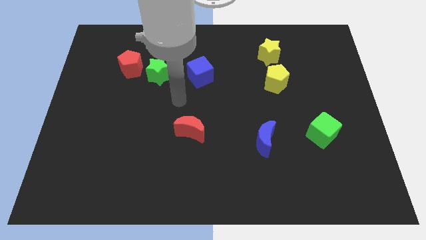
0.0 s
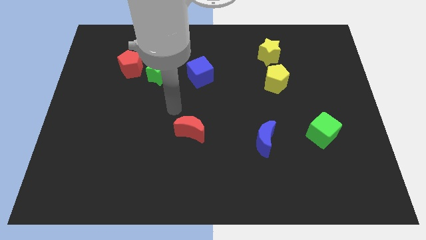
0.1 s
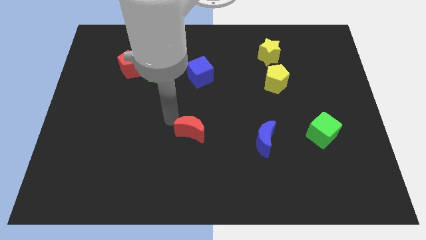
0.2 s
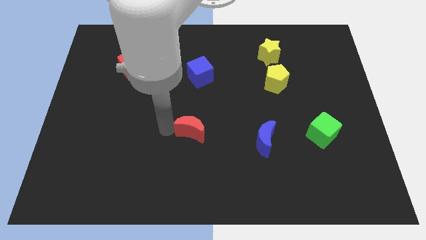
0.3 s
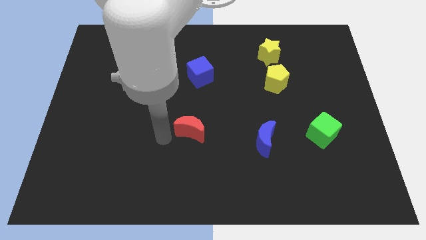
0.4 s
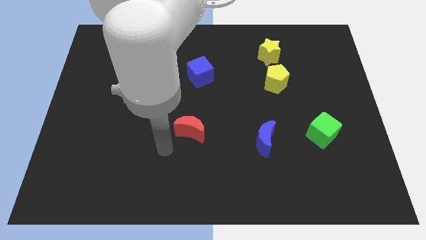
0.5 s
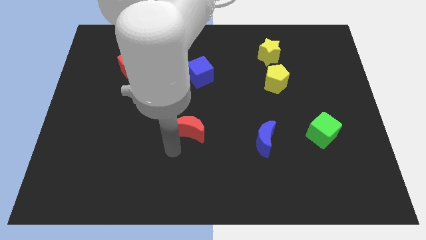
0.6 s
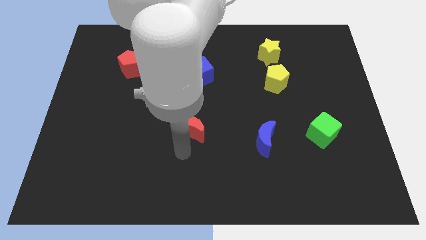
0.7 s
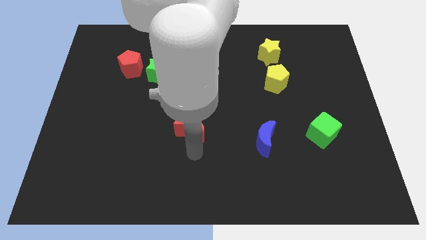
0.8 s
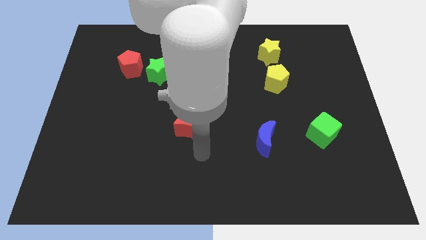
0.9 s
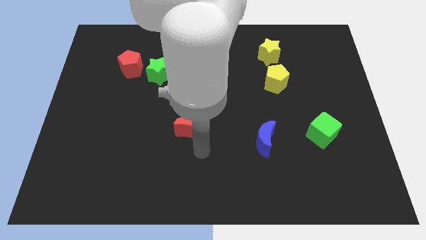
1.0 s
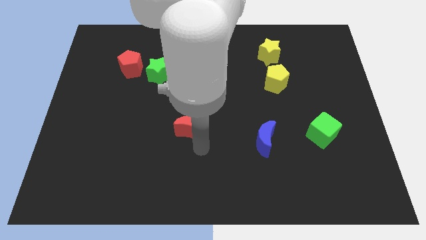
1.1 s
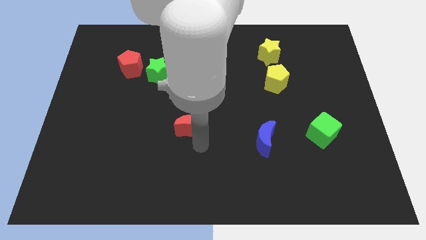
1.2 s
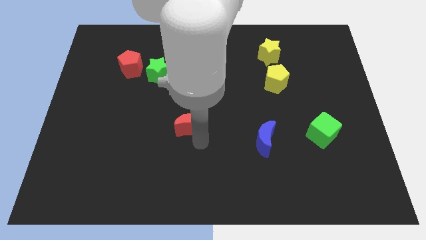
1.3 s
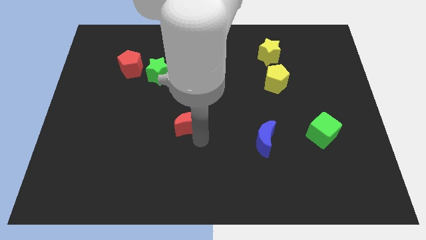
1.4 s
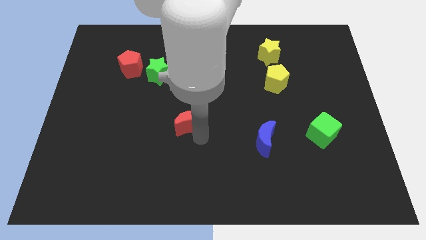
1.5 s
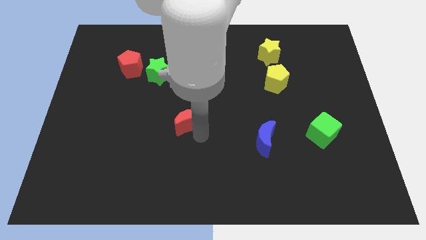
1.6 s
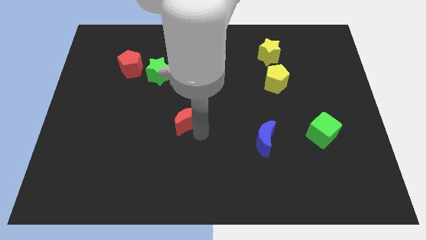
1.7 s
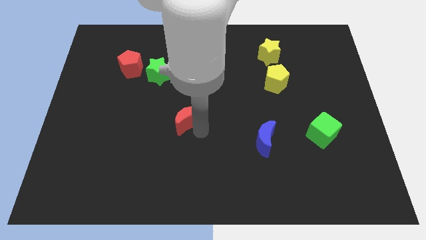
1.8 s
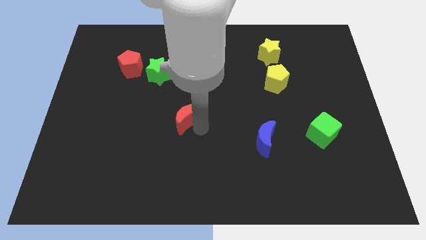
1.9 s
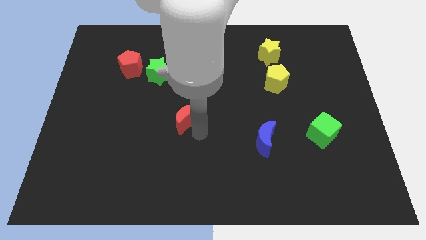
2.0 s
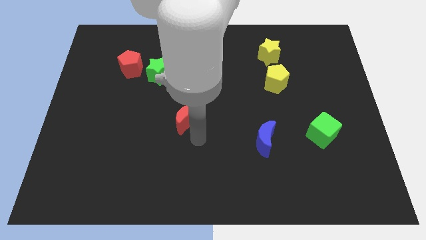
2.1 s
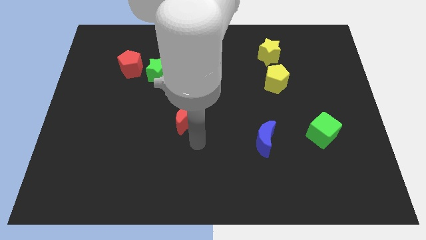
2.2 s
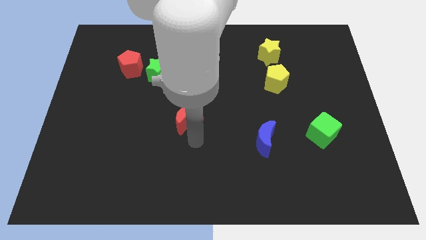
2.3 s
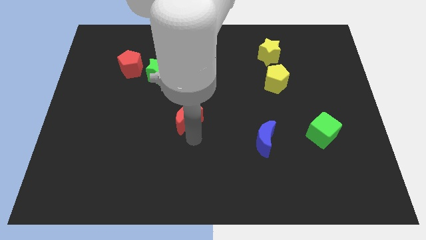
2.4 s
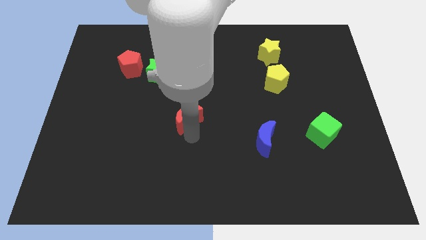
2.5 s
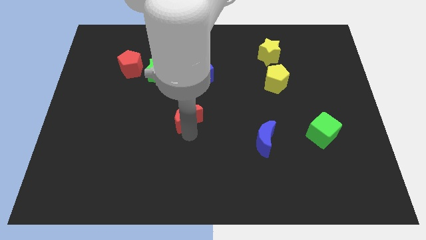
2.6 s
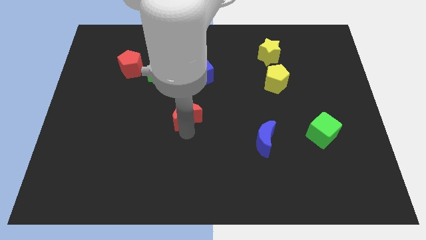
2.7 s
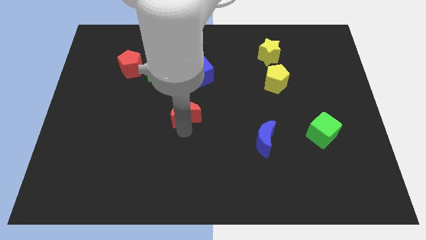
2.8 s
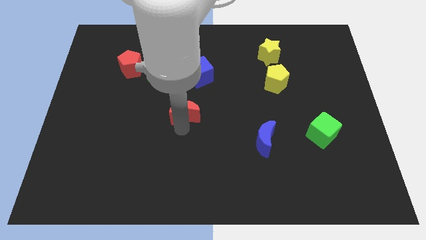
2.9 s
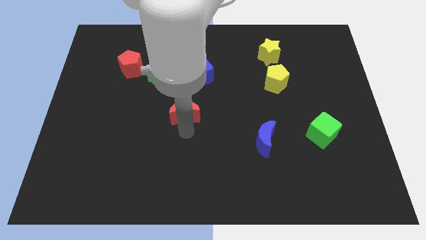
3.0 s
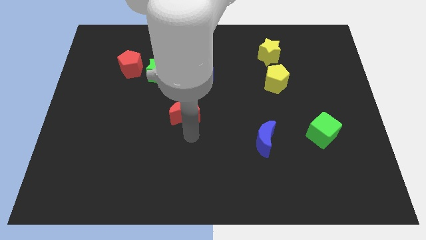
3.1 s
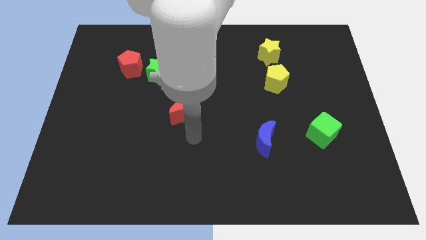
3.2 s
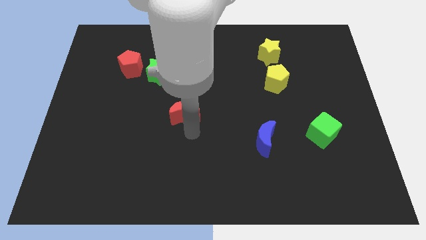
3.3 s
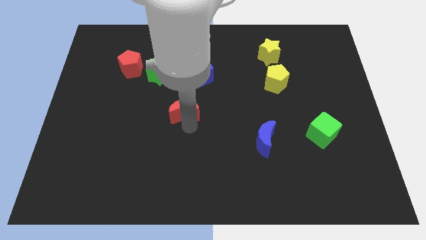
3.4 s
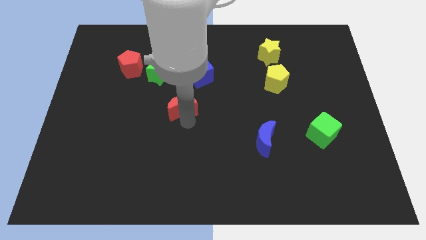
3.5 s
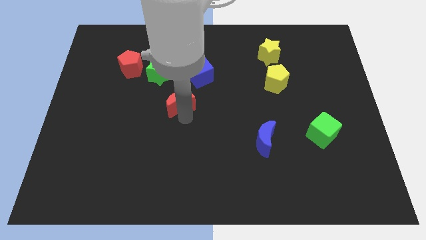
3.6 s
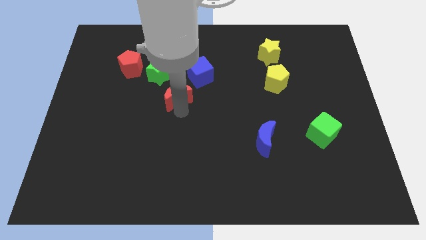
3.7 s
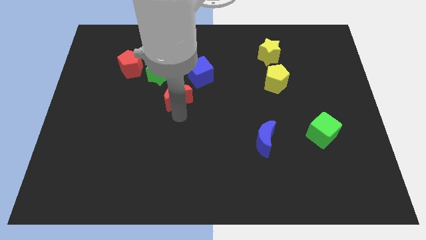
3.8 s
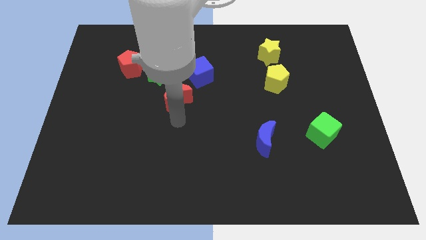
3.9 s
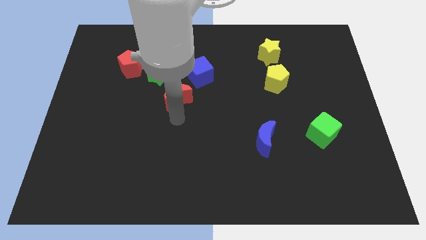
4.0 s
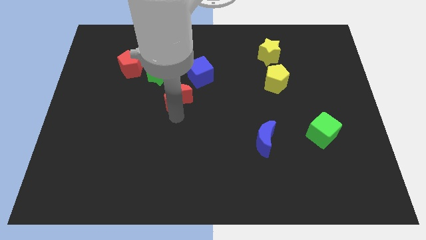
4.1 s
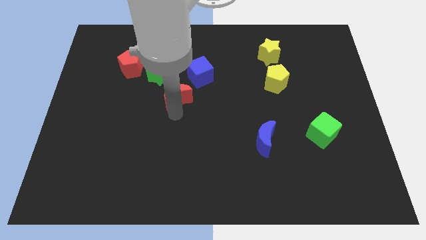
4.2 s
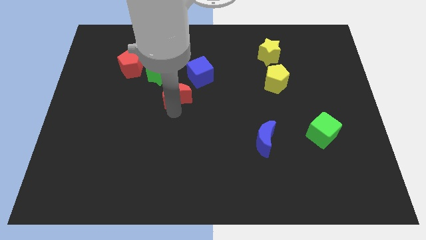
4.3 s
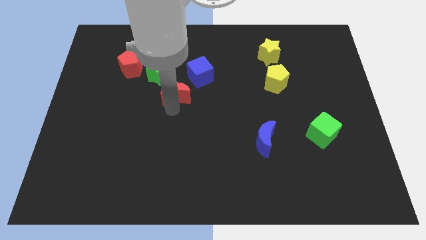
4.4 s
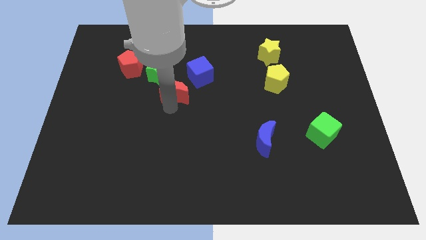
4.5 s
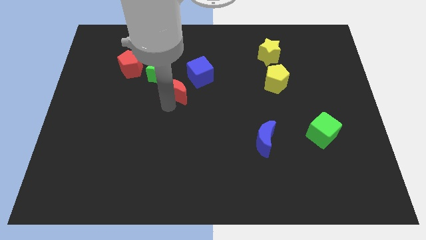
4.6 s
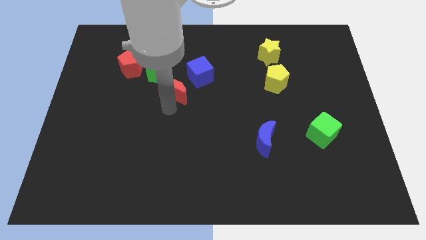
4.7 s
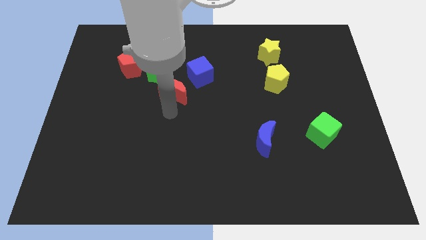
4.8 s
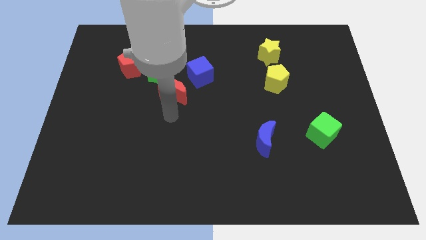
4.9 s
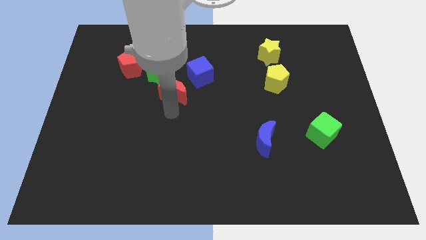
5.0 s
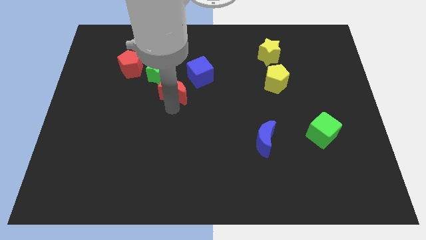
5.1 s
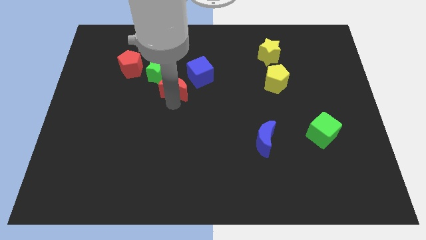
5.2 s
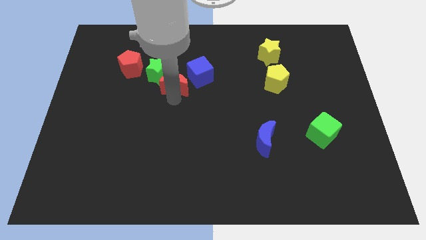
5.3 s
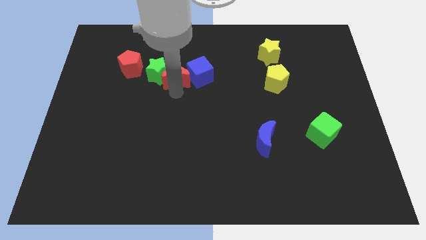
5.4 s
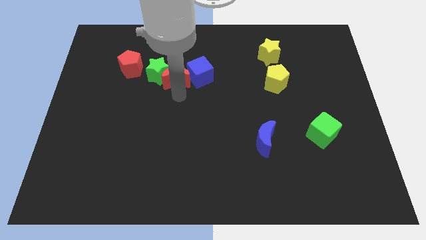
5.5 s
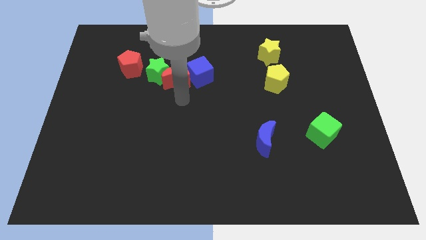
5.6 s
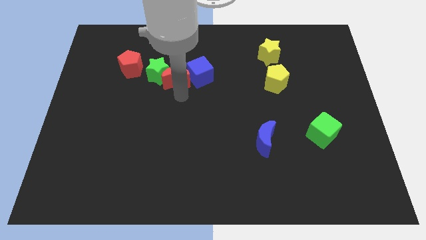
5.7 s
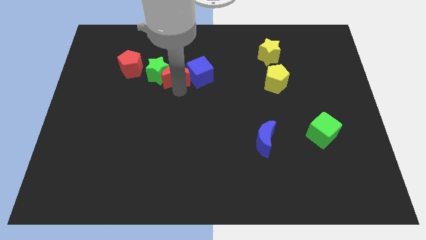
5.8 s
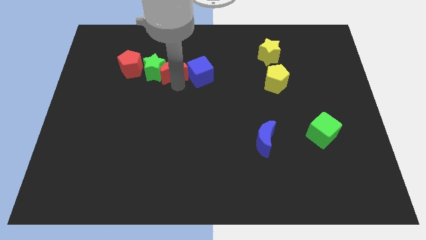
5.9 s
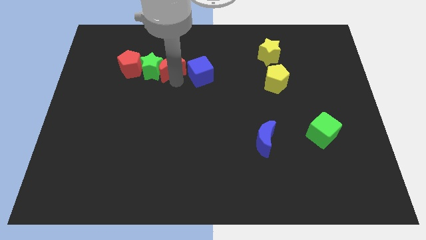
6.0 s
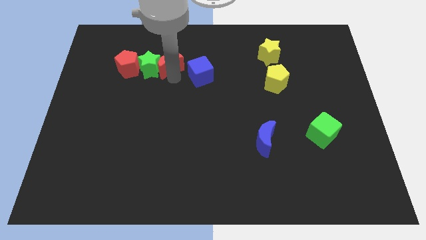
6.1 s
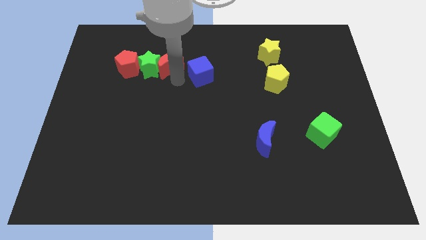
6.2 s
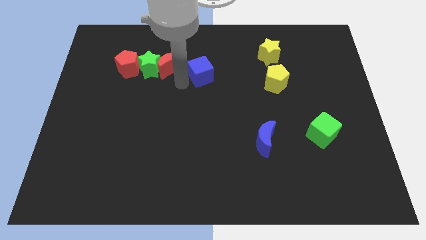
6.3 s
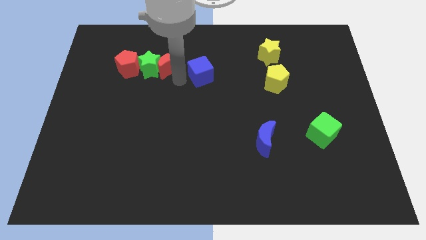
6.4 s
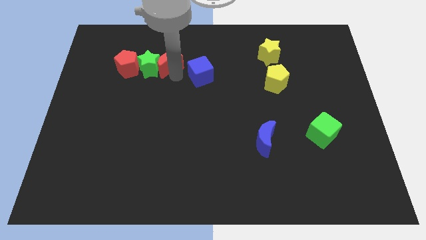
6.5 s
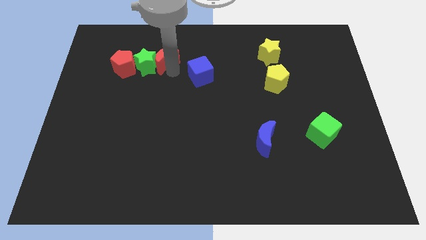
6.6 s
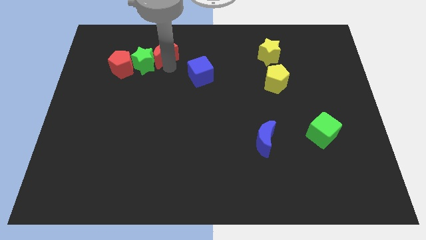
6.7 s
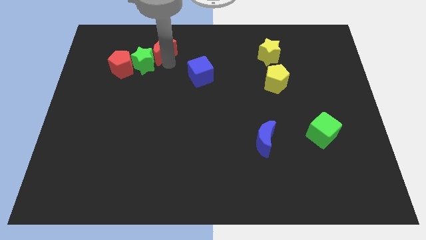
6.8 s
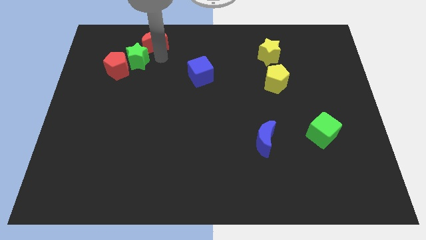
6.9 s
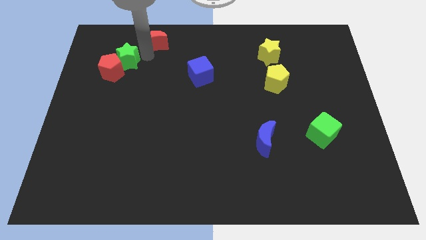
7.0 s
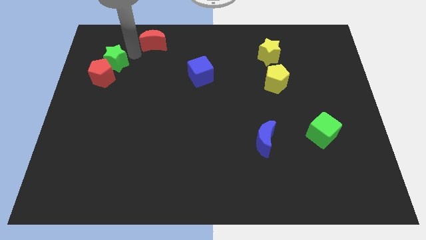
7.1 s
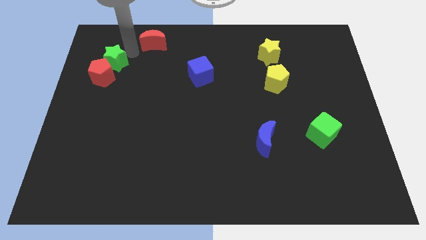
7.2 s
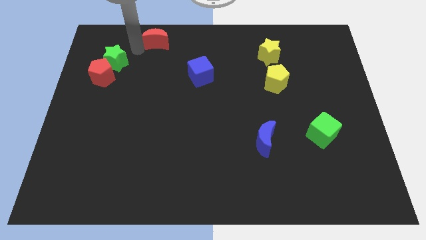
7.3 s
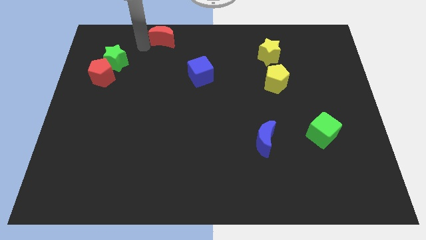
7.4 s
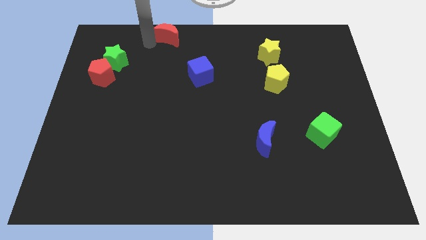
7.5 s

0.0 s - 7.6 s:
push the red moon to the towards your base
